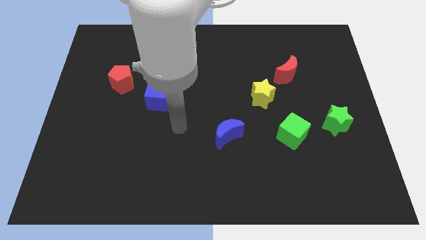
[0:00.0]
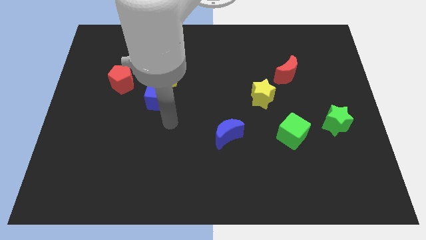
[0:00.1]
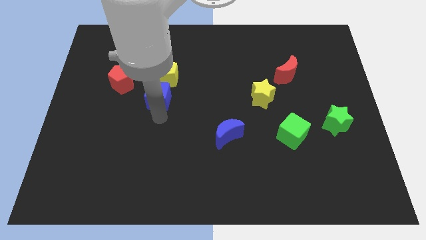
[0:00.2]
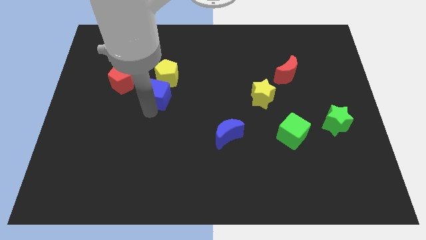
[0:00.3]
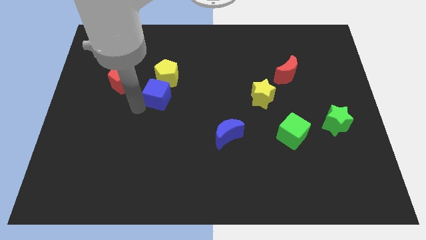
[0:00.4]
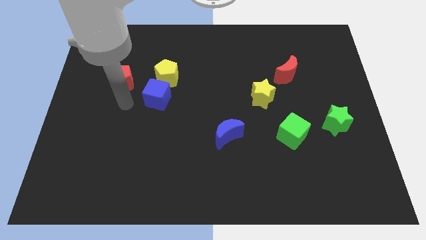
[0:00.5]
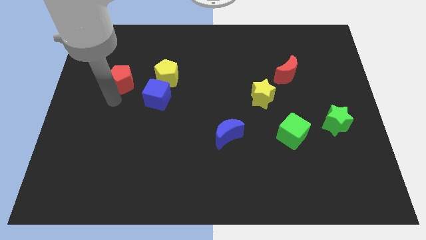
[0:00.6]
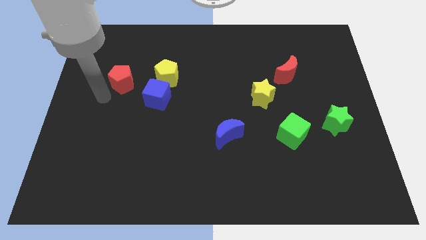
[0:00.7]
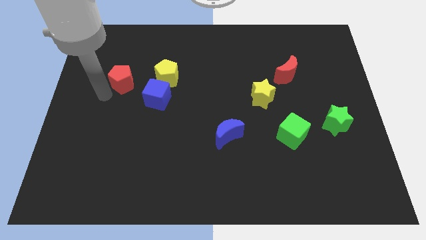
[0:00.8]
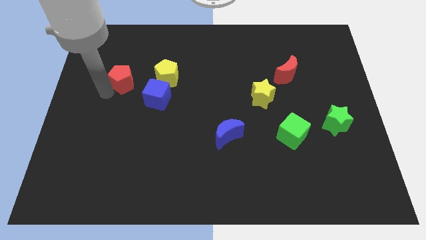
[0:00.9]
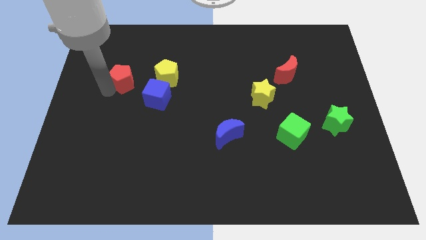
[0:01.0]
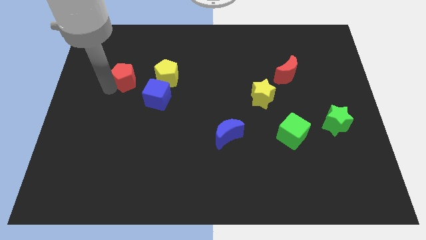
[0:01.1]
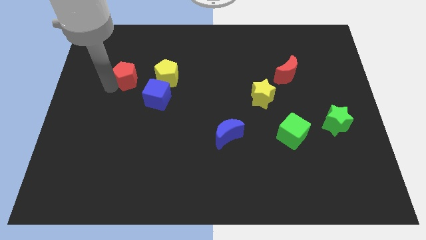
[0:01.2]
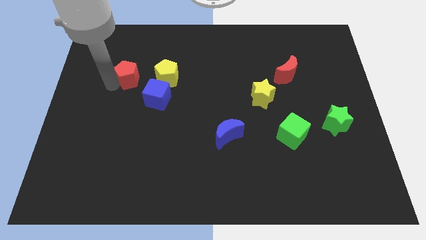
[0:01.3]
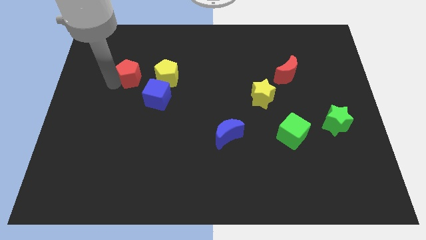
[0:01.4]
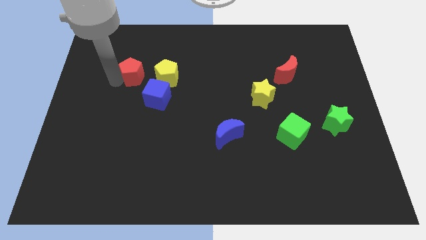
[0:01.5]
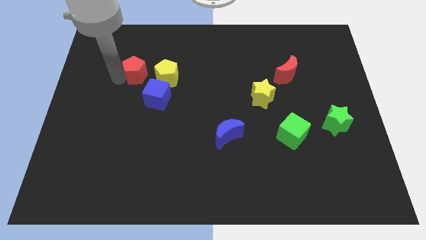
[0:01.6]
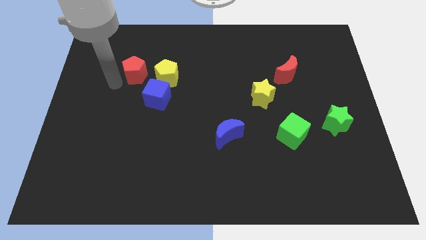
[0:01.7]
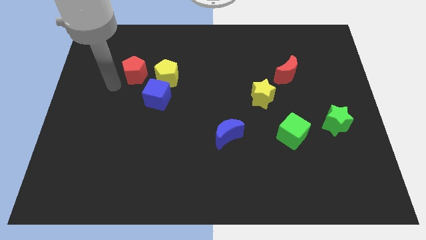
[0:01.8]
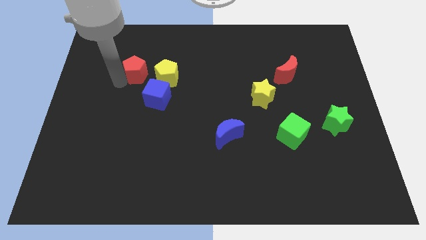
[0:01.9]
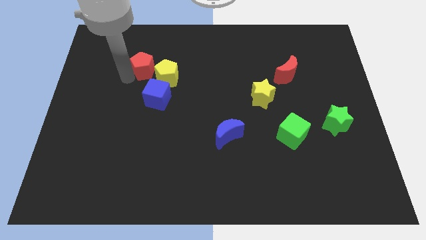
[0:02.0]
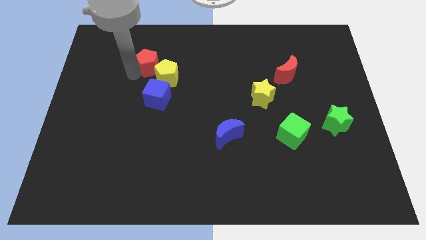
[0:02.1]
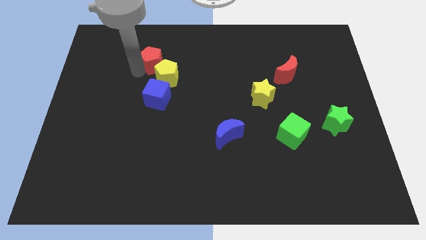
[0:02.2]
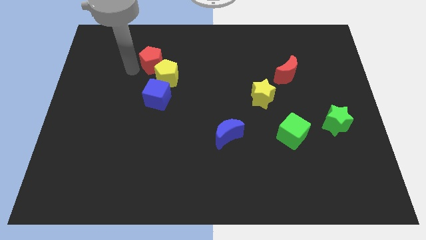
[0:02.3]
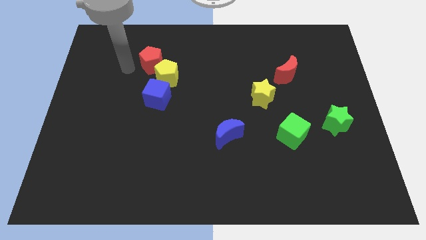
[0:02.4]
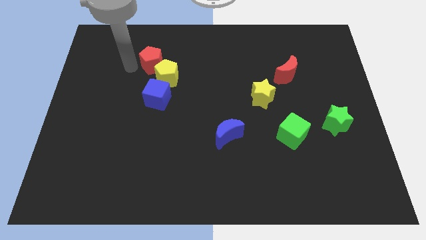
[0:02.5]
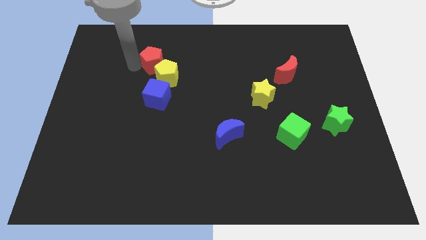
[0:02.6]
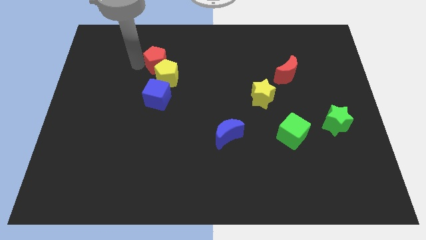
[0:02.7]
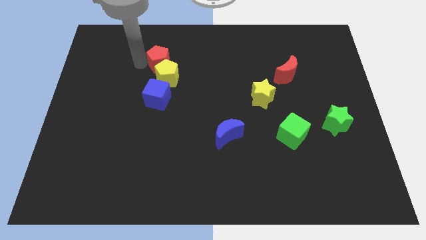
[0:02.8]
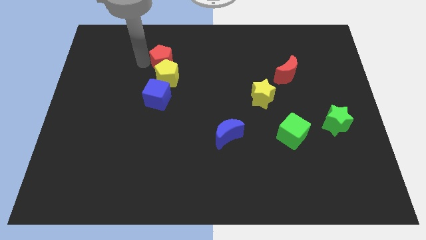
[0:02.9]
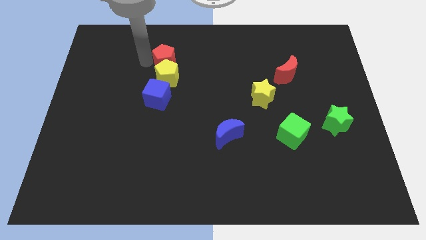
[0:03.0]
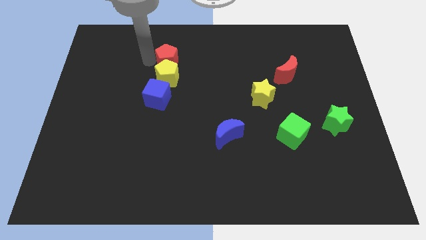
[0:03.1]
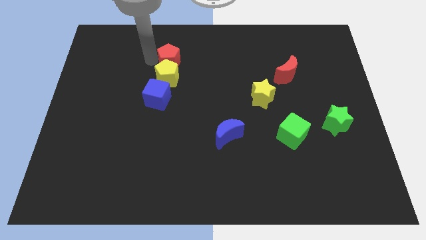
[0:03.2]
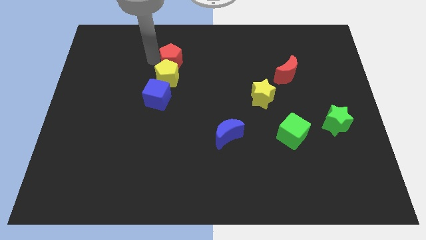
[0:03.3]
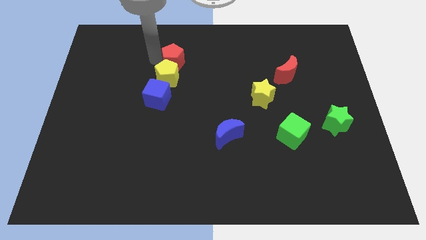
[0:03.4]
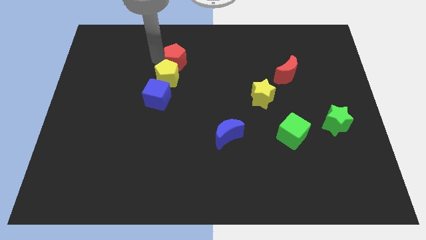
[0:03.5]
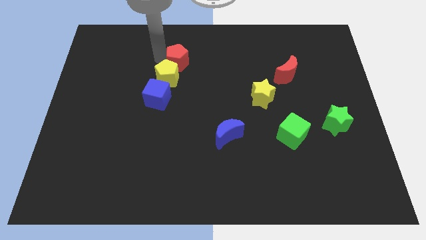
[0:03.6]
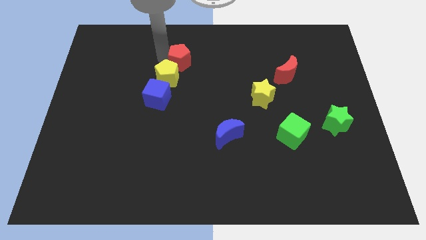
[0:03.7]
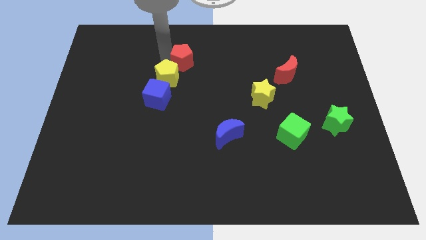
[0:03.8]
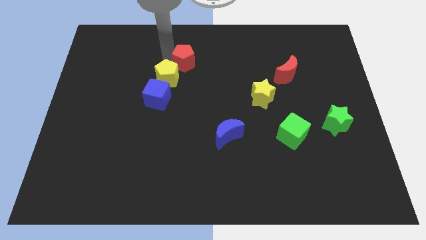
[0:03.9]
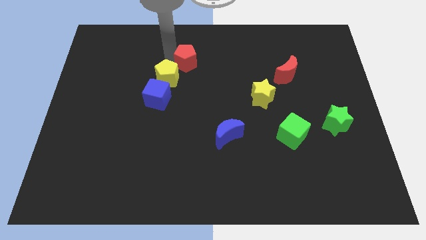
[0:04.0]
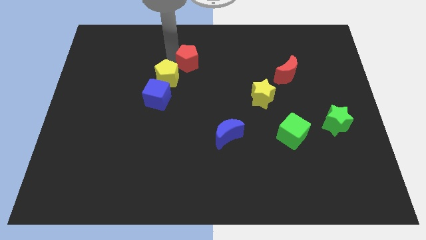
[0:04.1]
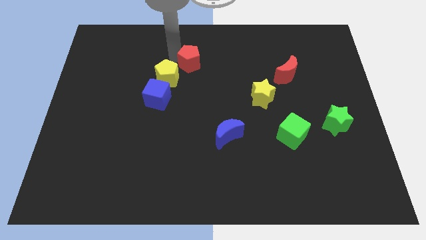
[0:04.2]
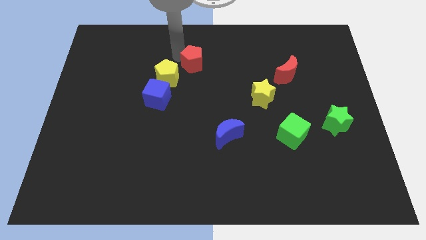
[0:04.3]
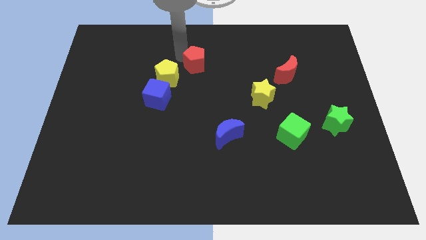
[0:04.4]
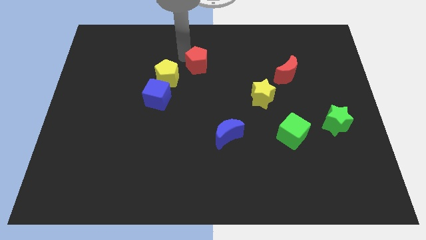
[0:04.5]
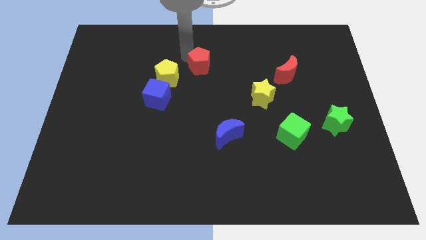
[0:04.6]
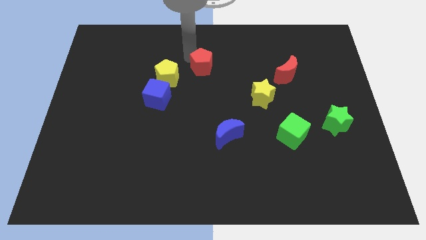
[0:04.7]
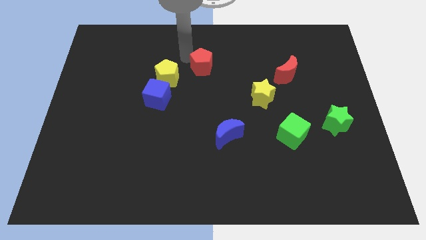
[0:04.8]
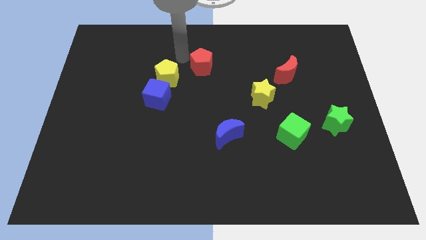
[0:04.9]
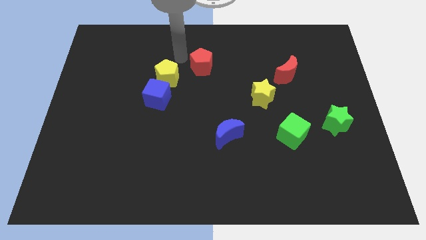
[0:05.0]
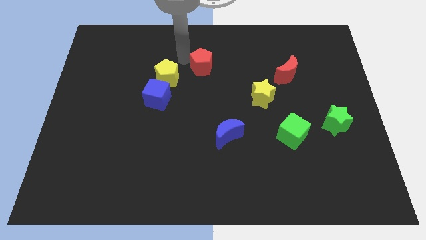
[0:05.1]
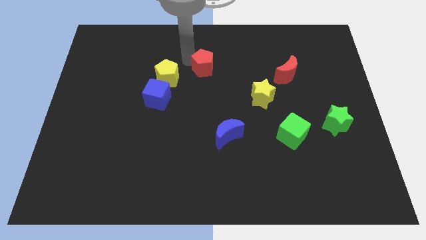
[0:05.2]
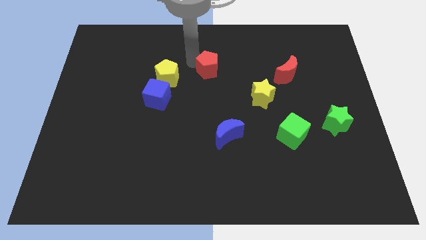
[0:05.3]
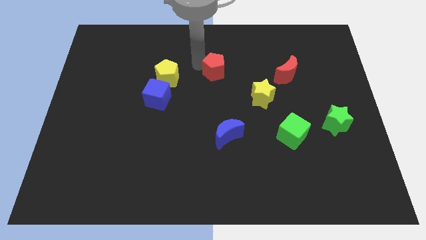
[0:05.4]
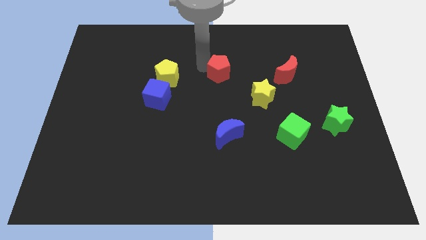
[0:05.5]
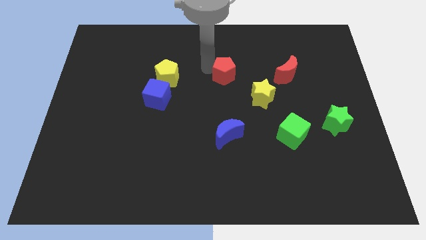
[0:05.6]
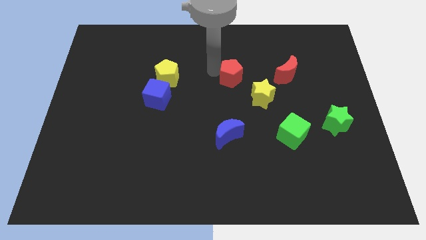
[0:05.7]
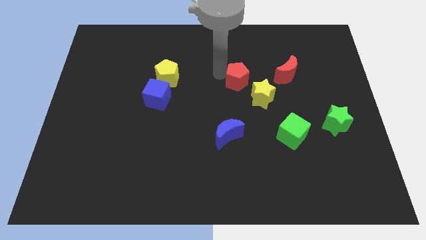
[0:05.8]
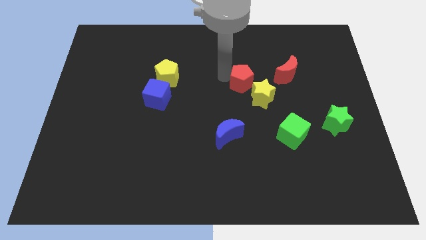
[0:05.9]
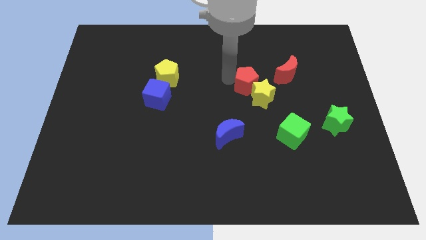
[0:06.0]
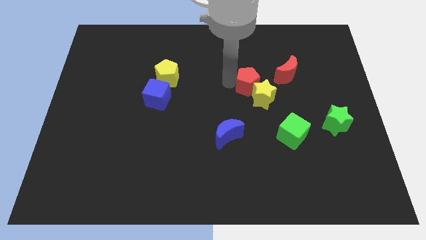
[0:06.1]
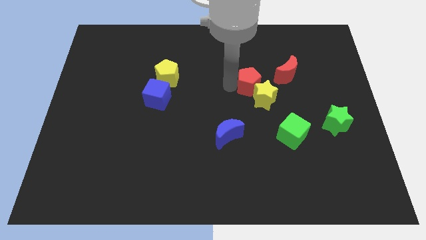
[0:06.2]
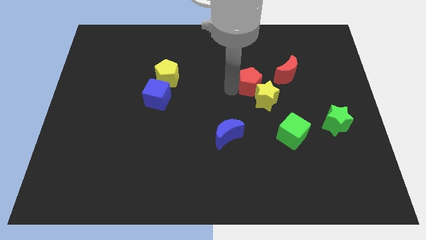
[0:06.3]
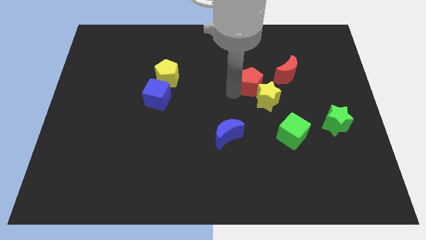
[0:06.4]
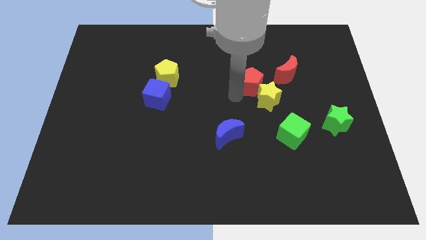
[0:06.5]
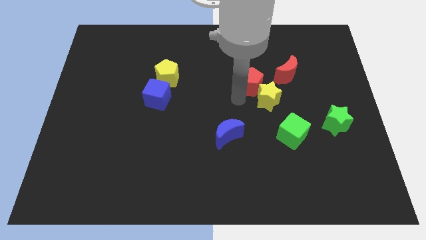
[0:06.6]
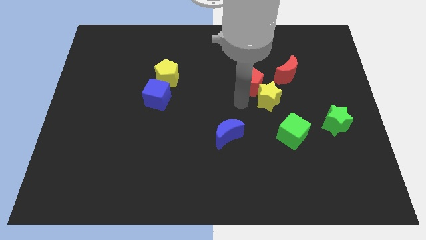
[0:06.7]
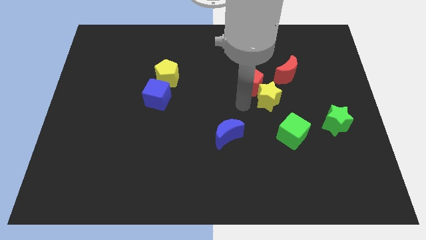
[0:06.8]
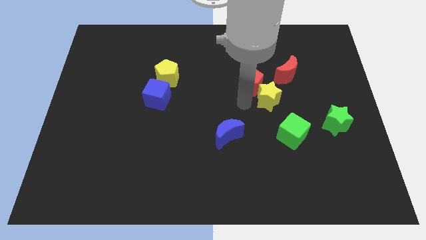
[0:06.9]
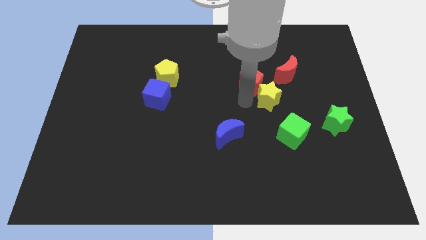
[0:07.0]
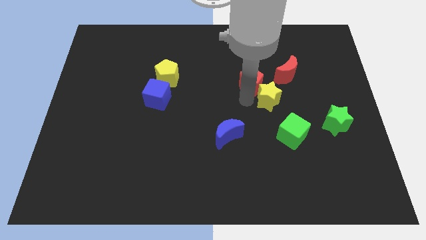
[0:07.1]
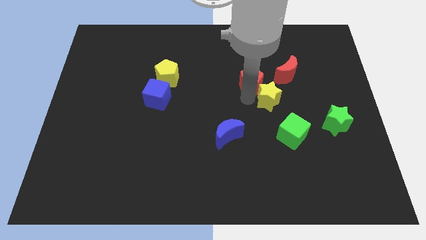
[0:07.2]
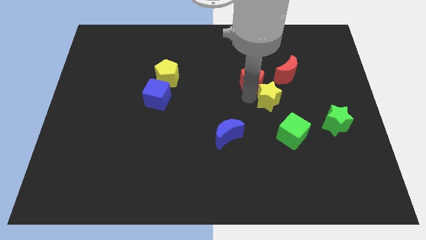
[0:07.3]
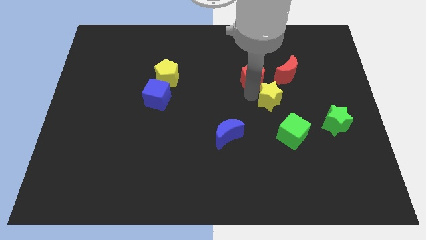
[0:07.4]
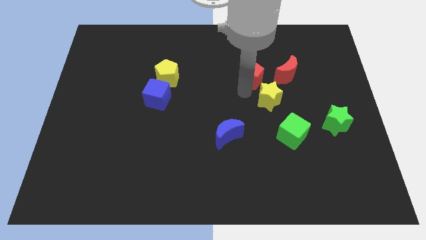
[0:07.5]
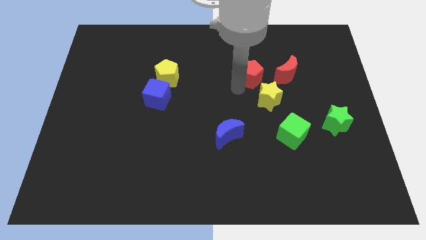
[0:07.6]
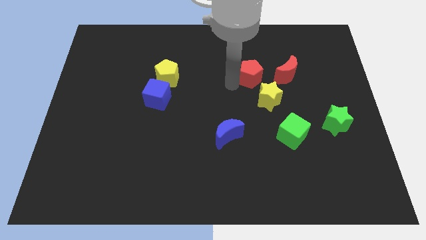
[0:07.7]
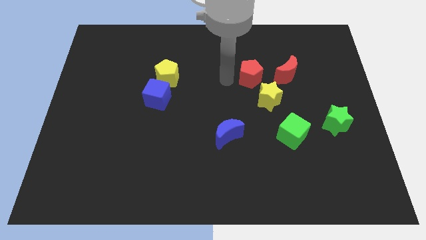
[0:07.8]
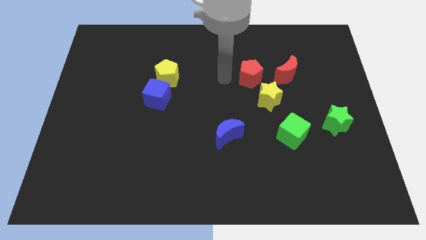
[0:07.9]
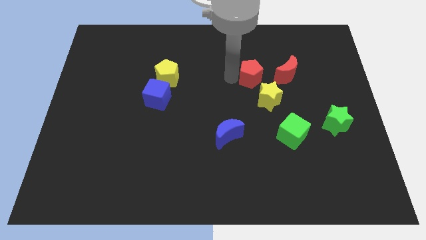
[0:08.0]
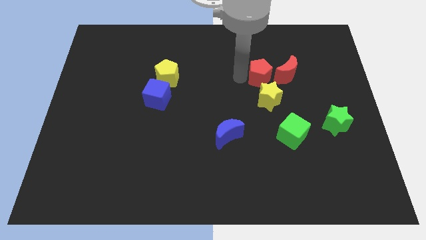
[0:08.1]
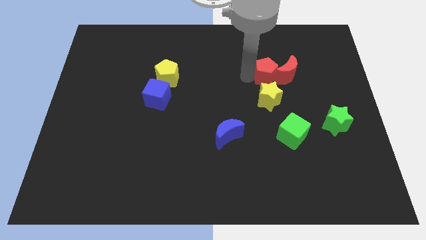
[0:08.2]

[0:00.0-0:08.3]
slide the red pentagon towards the red moon
